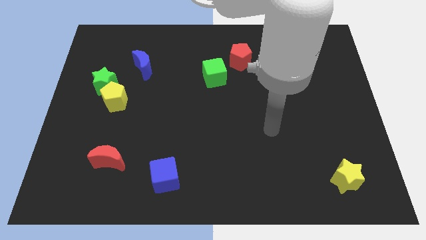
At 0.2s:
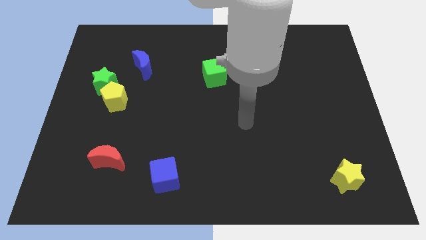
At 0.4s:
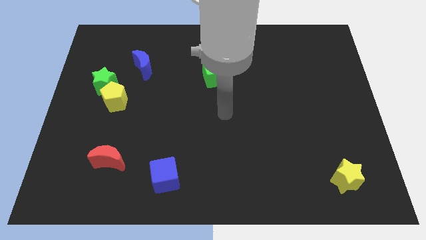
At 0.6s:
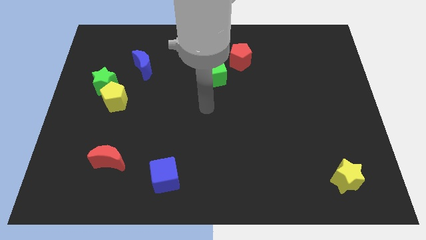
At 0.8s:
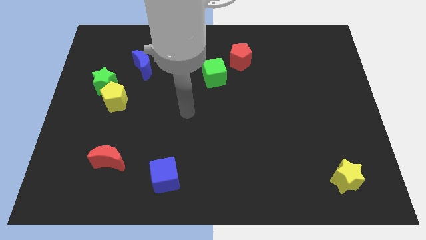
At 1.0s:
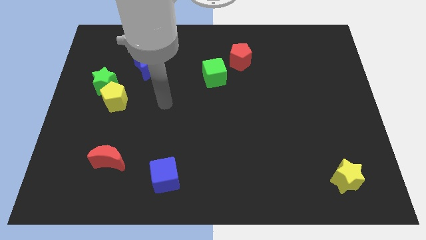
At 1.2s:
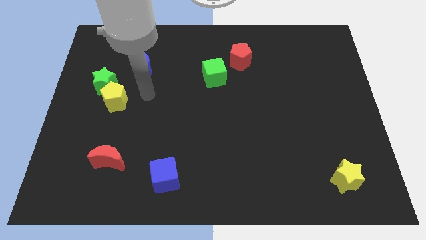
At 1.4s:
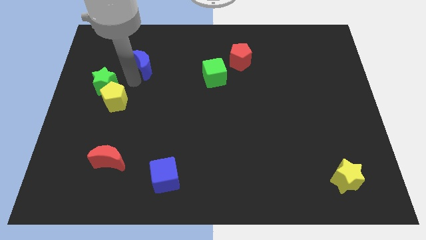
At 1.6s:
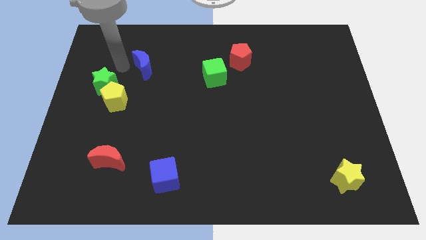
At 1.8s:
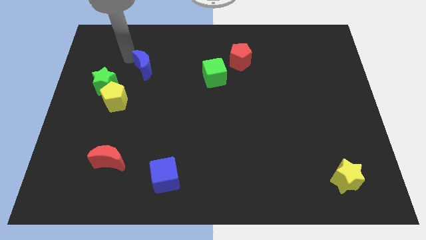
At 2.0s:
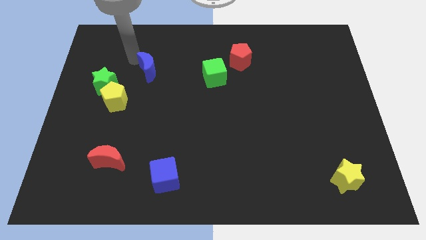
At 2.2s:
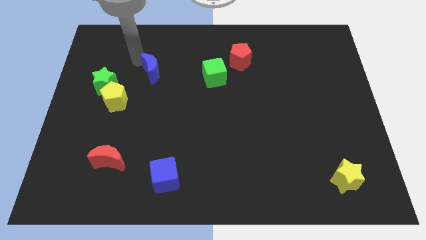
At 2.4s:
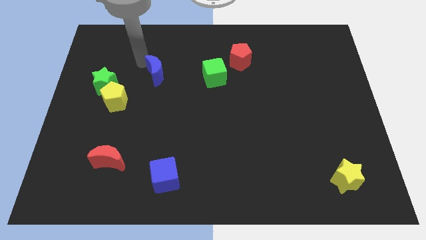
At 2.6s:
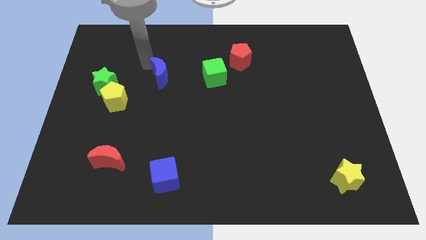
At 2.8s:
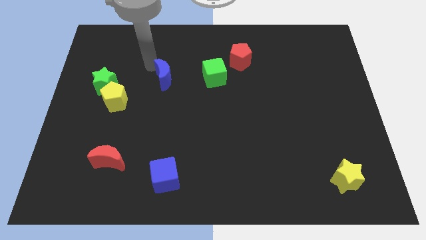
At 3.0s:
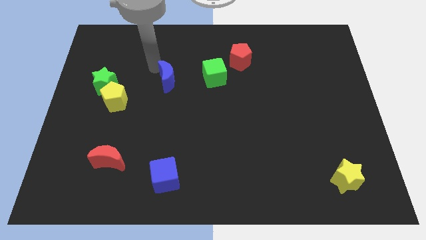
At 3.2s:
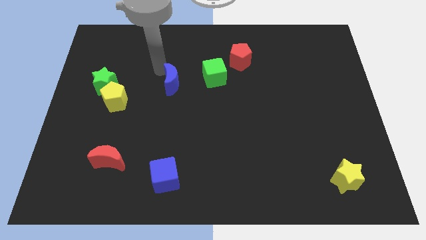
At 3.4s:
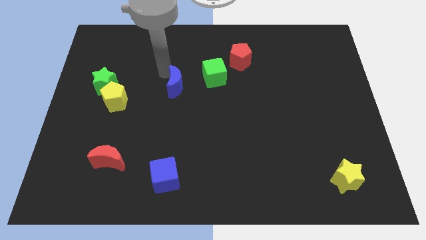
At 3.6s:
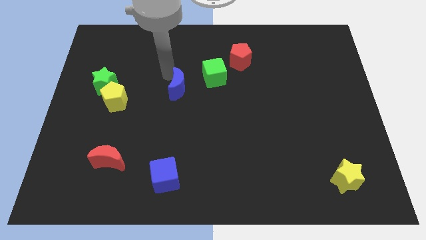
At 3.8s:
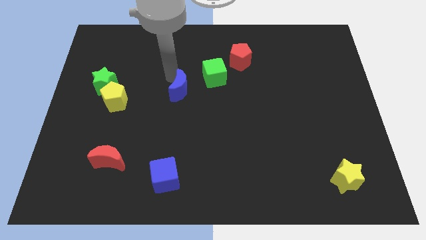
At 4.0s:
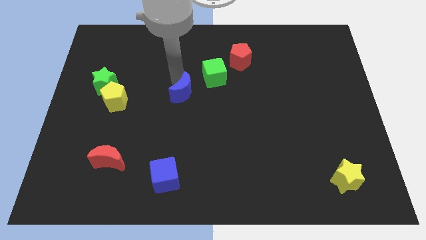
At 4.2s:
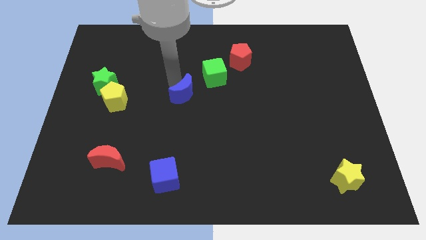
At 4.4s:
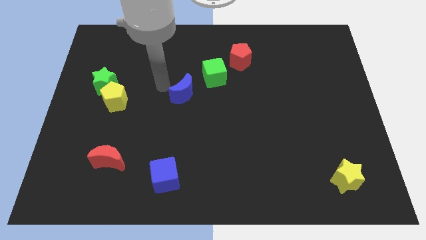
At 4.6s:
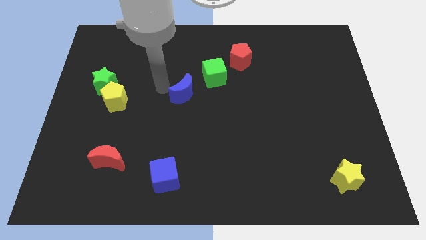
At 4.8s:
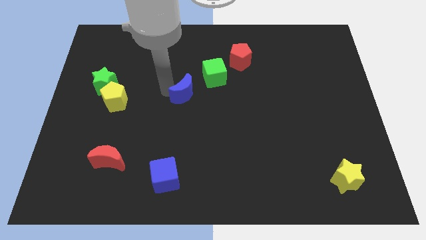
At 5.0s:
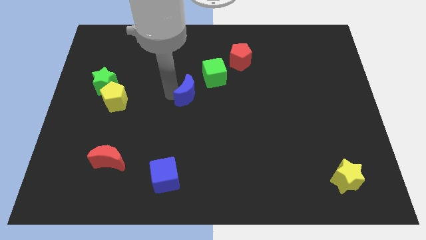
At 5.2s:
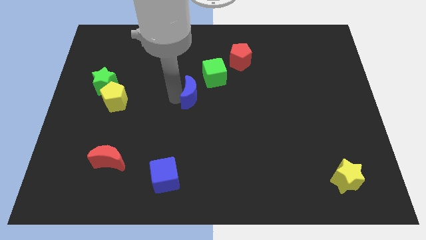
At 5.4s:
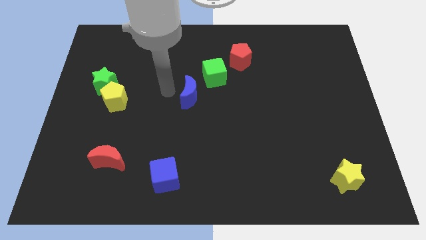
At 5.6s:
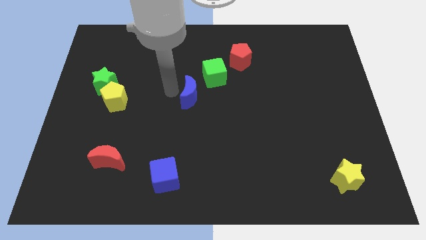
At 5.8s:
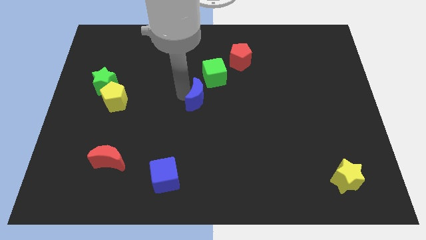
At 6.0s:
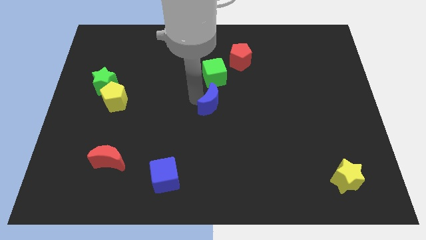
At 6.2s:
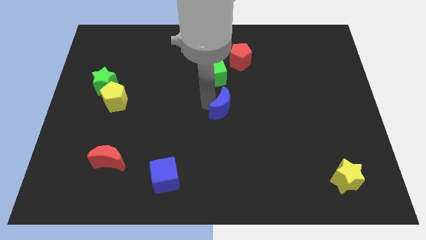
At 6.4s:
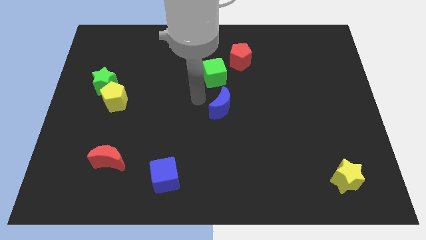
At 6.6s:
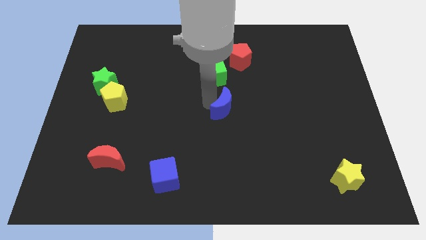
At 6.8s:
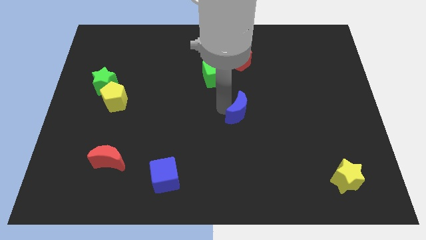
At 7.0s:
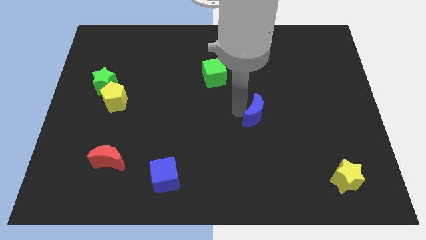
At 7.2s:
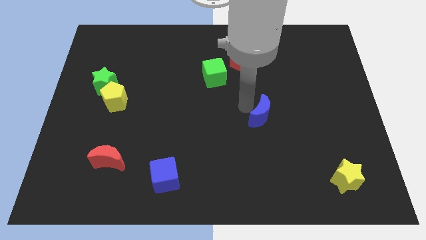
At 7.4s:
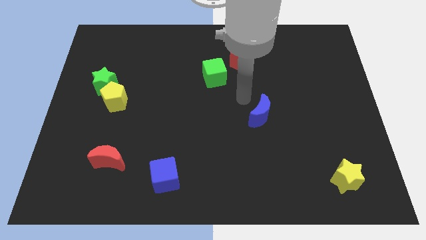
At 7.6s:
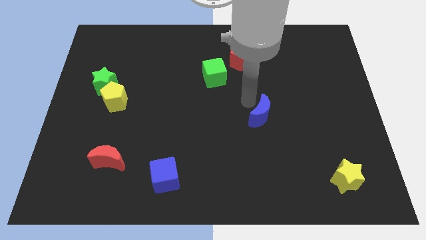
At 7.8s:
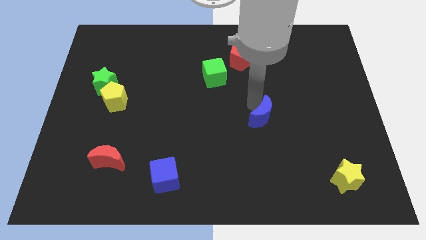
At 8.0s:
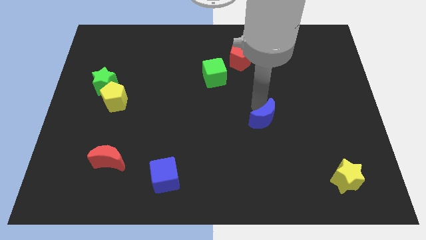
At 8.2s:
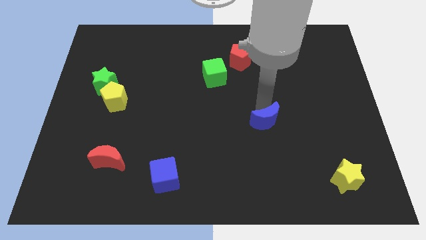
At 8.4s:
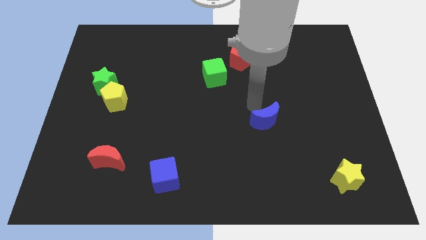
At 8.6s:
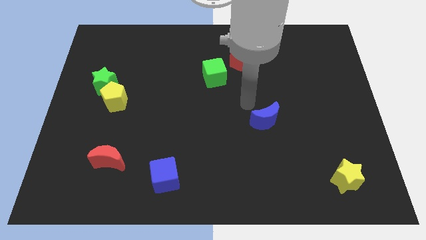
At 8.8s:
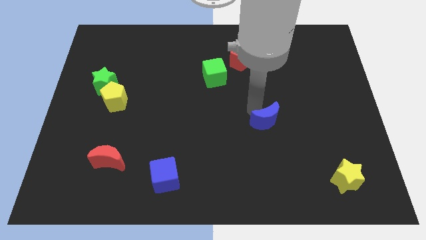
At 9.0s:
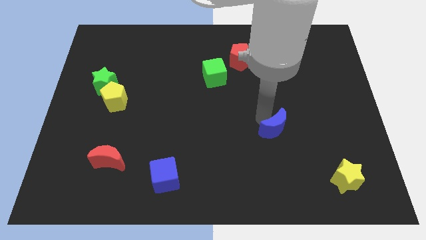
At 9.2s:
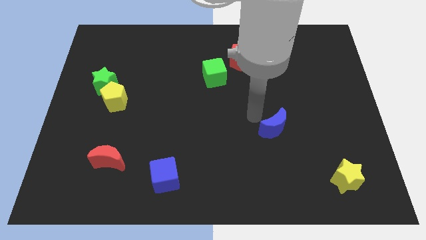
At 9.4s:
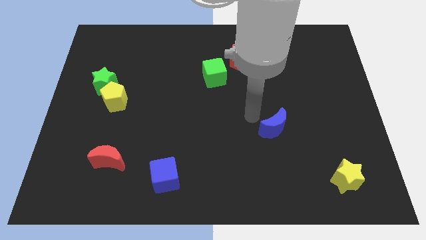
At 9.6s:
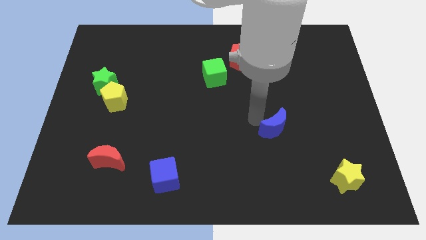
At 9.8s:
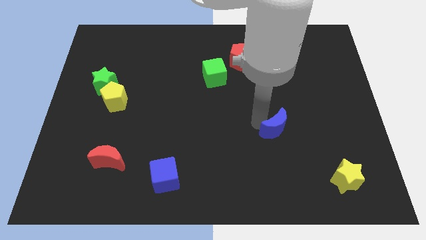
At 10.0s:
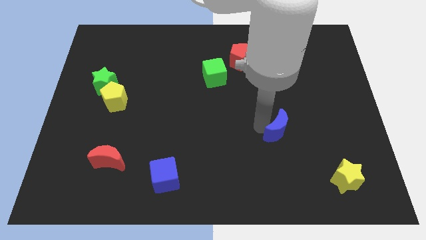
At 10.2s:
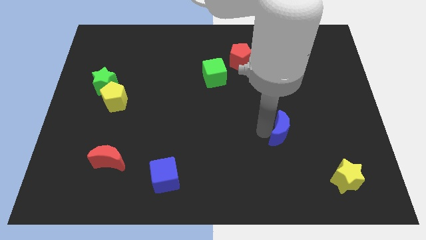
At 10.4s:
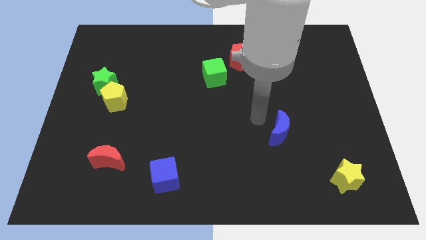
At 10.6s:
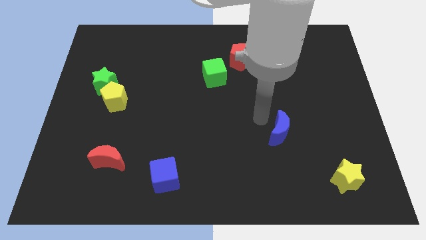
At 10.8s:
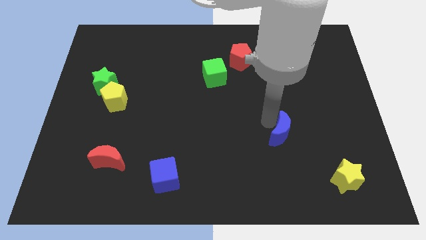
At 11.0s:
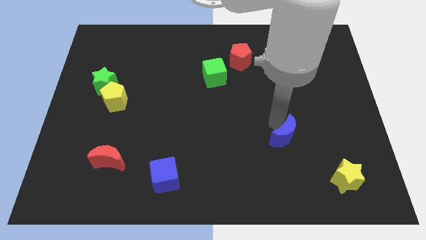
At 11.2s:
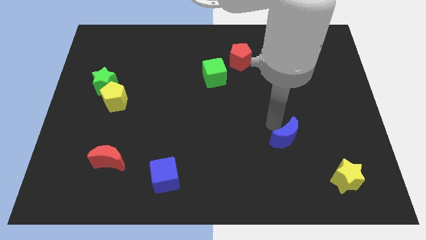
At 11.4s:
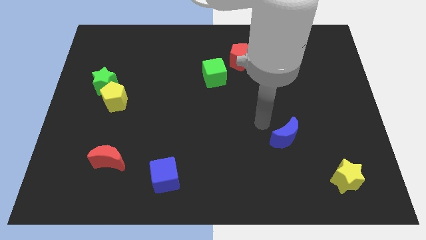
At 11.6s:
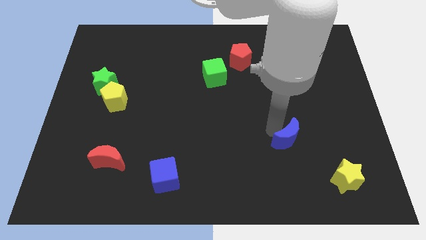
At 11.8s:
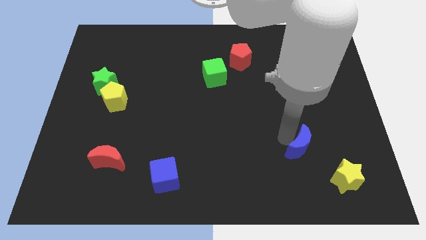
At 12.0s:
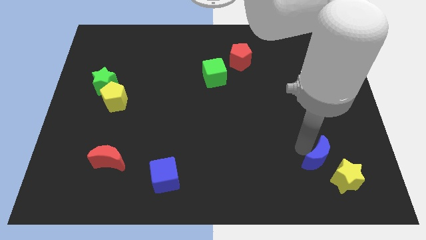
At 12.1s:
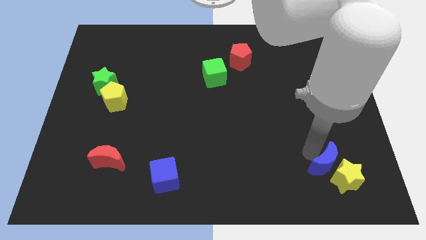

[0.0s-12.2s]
move the blue moon to the yellow star

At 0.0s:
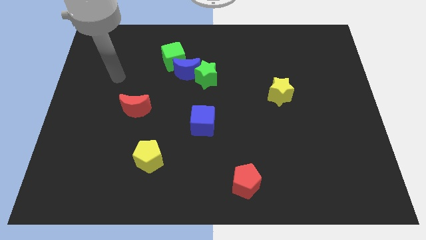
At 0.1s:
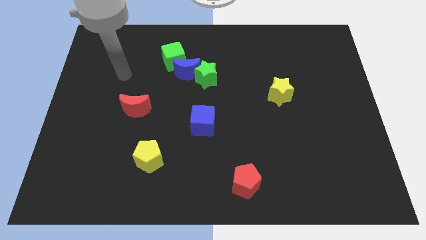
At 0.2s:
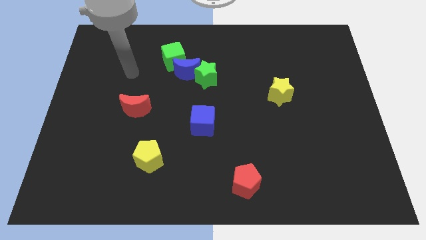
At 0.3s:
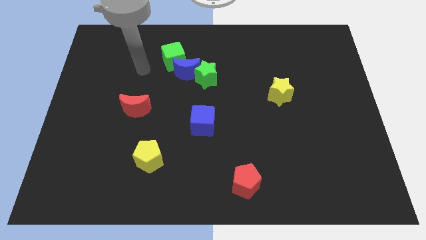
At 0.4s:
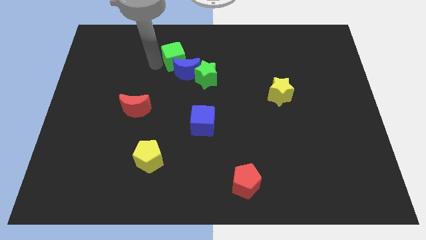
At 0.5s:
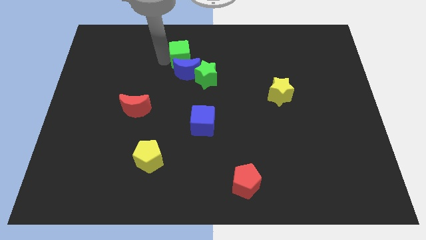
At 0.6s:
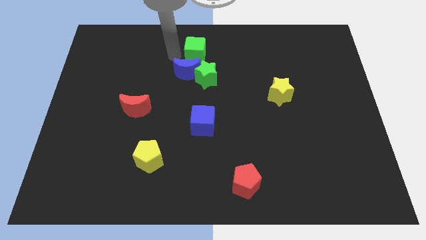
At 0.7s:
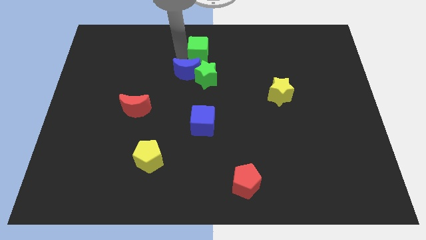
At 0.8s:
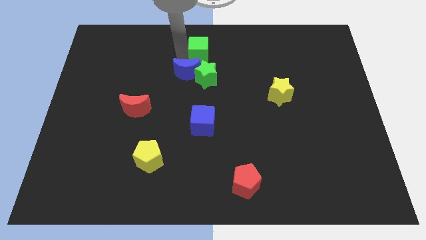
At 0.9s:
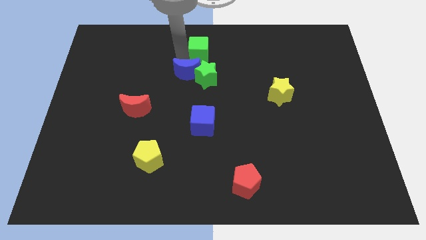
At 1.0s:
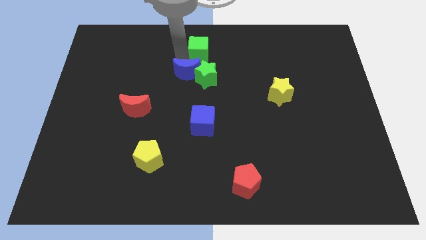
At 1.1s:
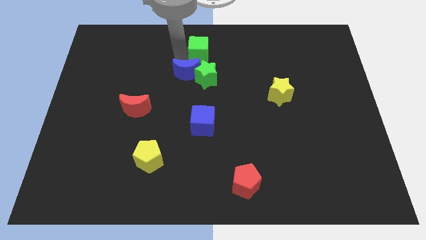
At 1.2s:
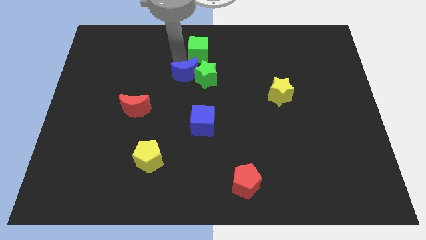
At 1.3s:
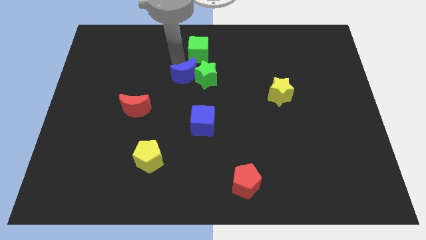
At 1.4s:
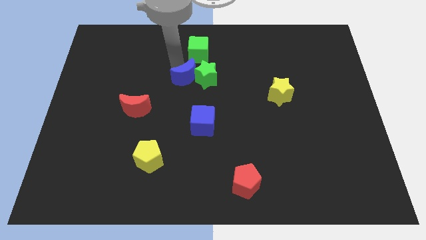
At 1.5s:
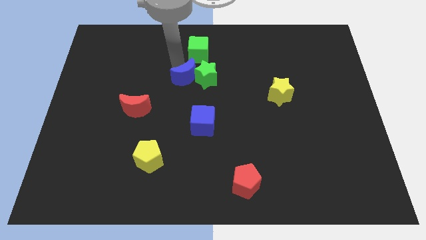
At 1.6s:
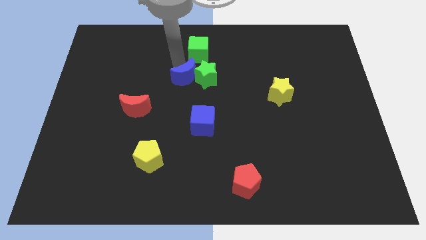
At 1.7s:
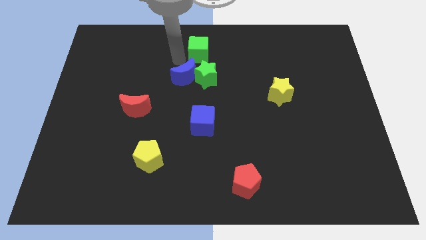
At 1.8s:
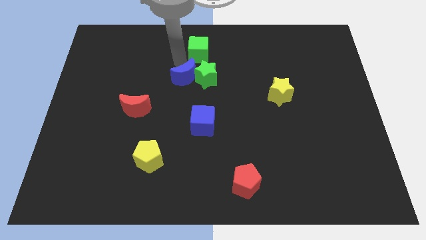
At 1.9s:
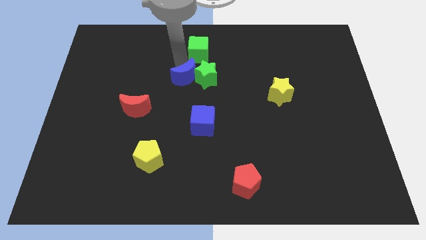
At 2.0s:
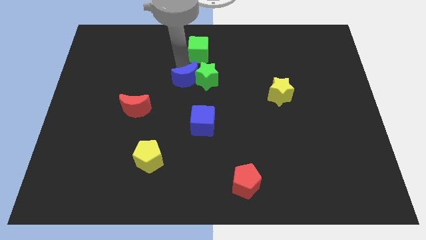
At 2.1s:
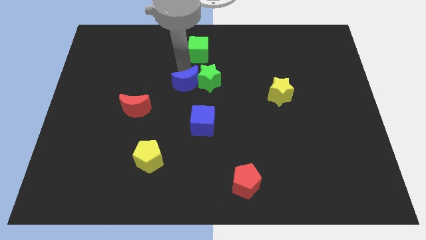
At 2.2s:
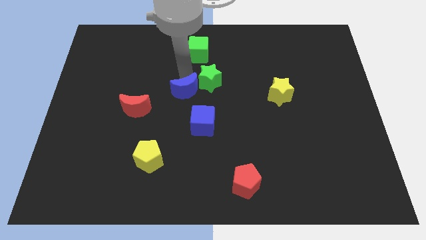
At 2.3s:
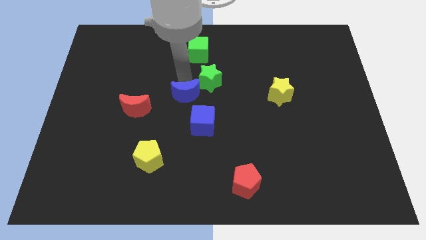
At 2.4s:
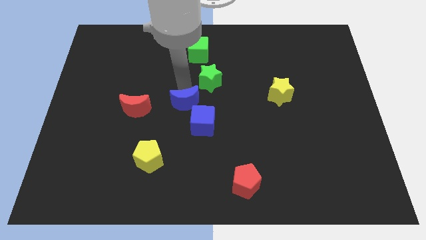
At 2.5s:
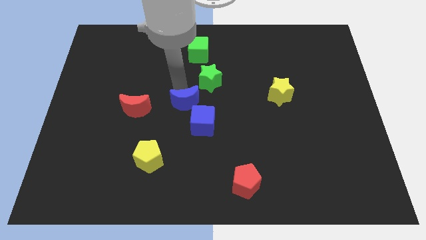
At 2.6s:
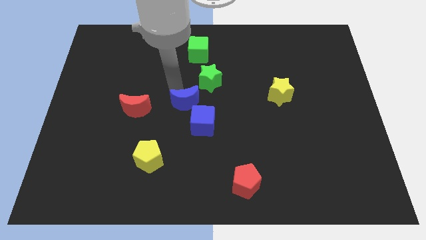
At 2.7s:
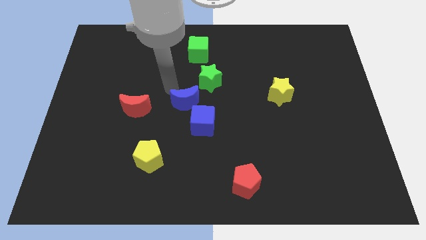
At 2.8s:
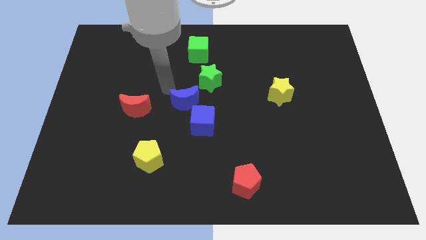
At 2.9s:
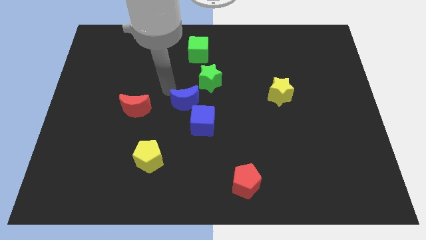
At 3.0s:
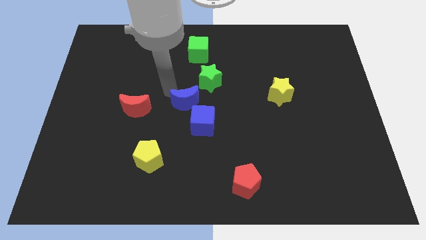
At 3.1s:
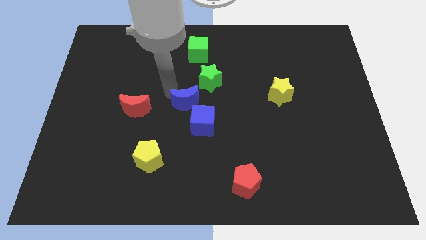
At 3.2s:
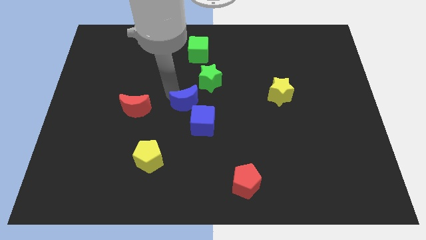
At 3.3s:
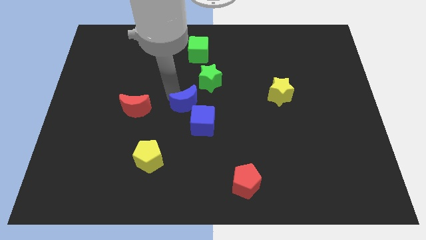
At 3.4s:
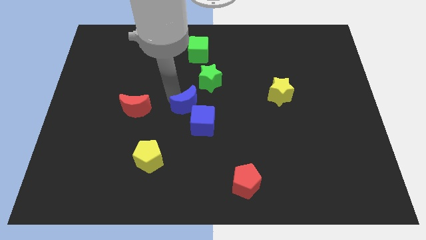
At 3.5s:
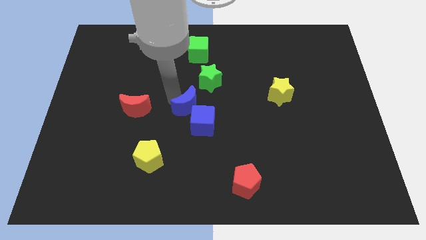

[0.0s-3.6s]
move the blue moon towards the blue cube
